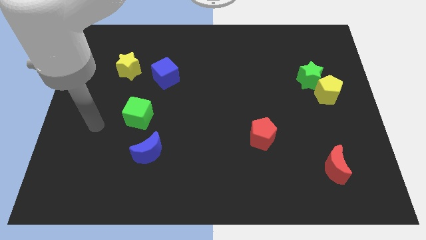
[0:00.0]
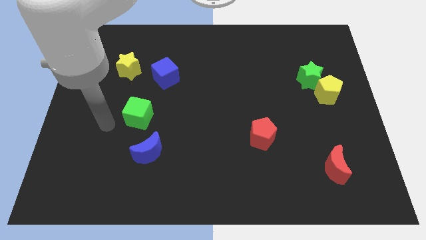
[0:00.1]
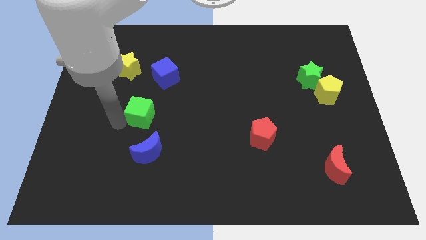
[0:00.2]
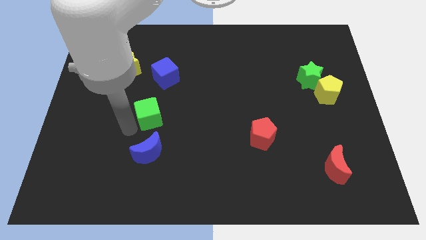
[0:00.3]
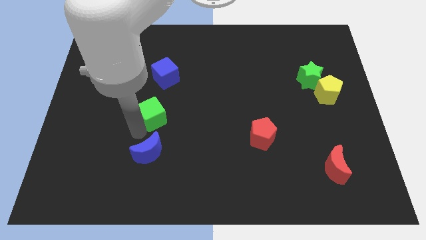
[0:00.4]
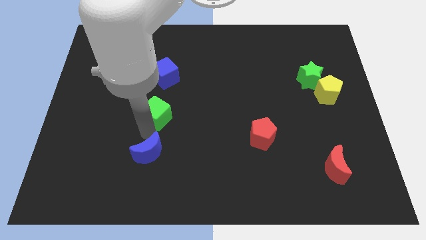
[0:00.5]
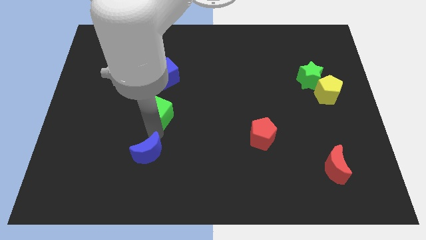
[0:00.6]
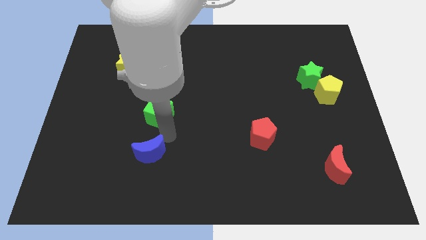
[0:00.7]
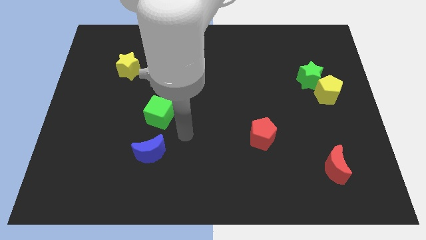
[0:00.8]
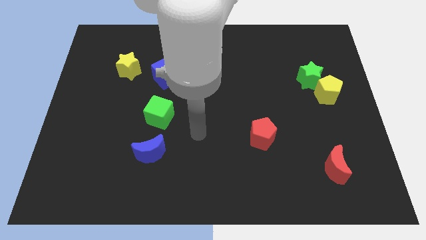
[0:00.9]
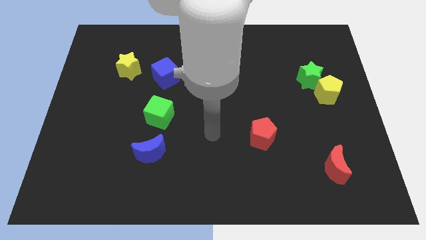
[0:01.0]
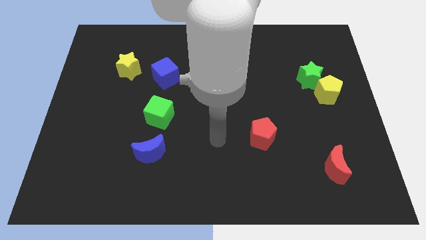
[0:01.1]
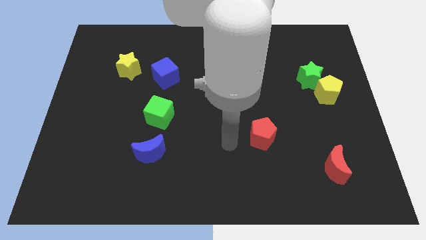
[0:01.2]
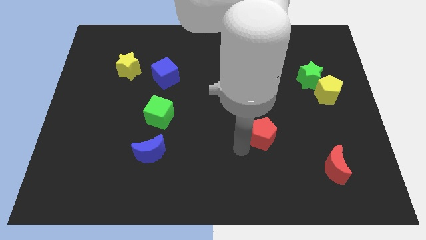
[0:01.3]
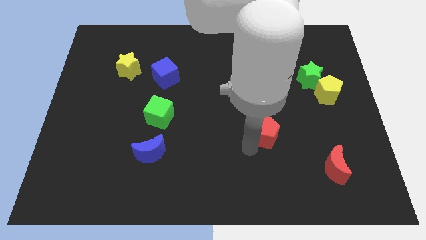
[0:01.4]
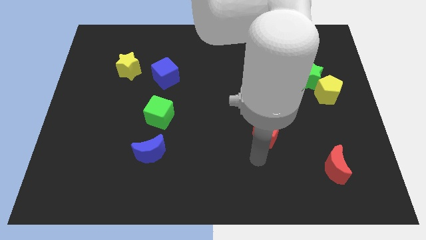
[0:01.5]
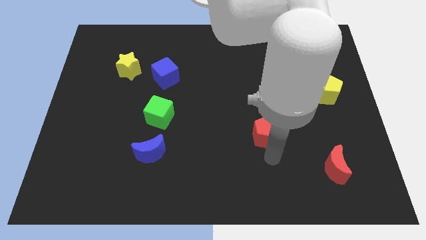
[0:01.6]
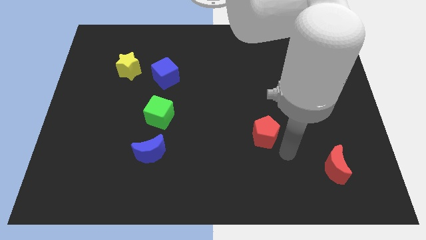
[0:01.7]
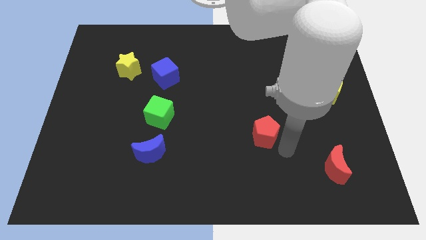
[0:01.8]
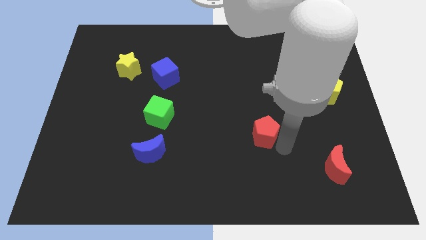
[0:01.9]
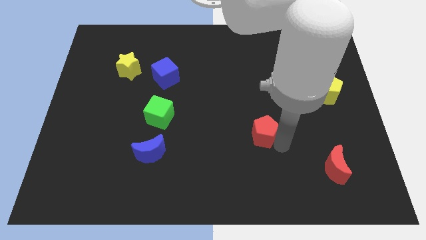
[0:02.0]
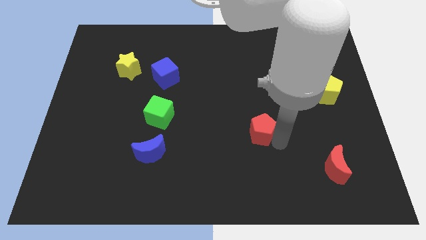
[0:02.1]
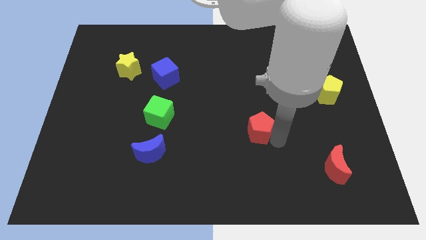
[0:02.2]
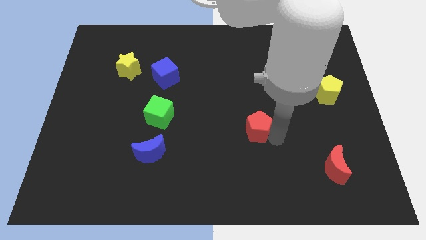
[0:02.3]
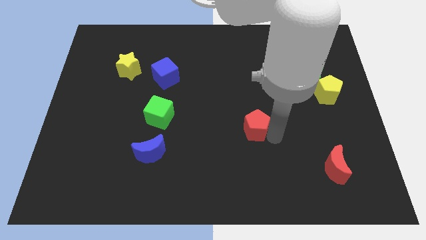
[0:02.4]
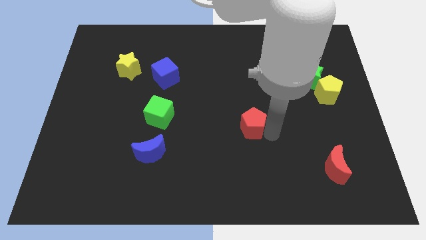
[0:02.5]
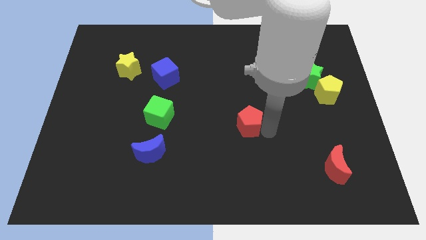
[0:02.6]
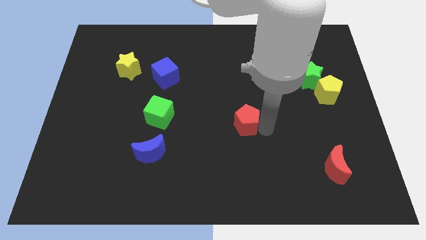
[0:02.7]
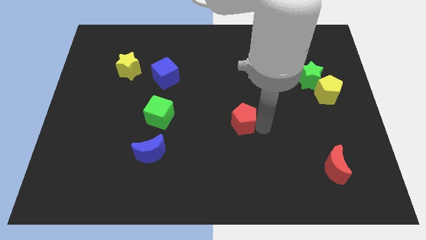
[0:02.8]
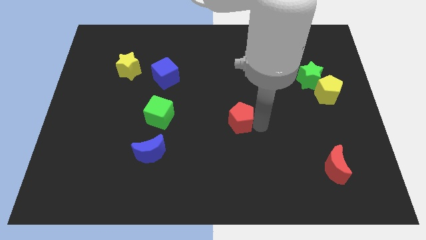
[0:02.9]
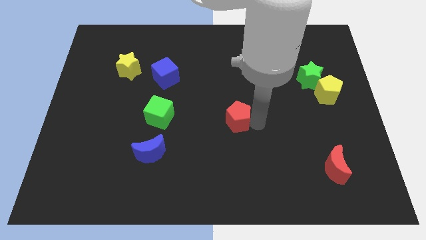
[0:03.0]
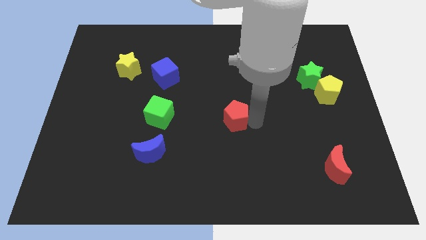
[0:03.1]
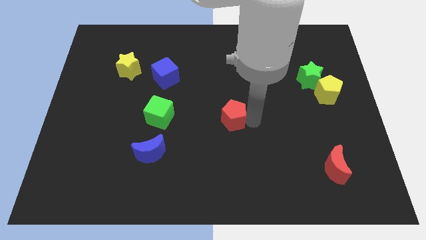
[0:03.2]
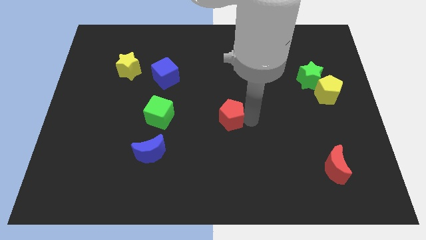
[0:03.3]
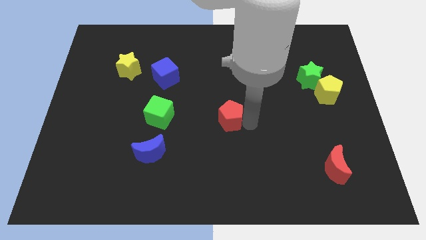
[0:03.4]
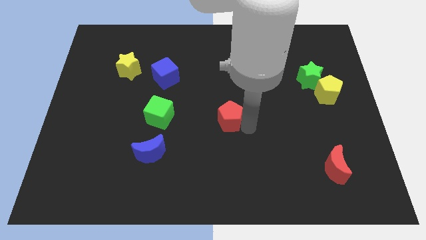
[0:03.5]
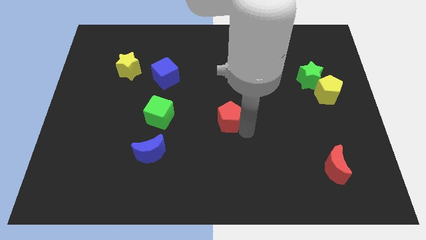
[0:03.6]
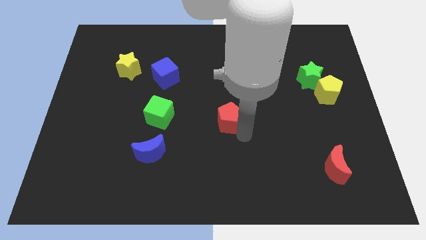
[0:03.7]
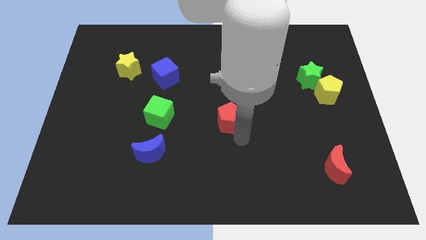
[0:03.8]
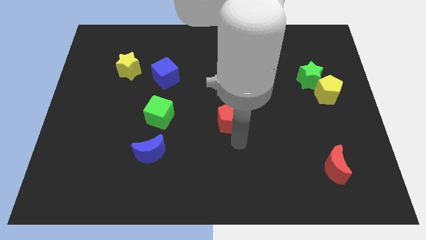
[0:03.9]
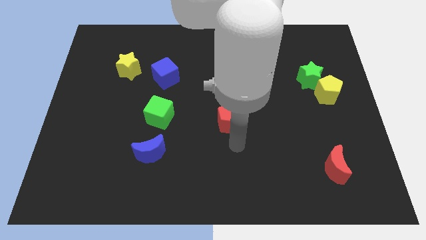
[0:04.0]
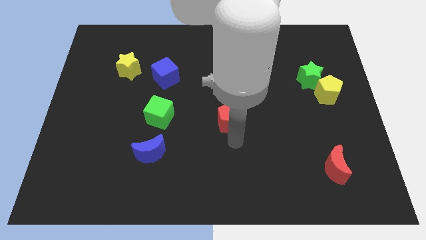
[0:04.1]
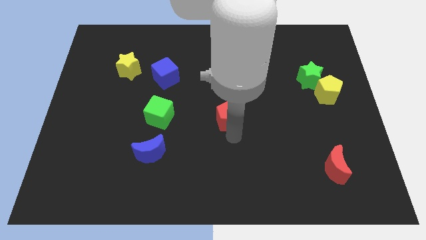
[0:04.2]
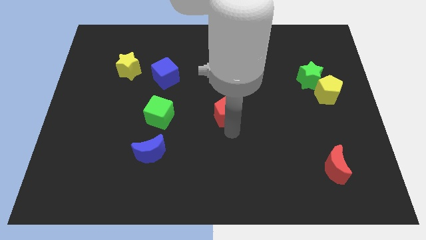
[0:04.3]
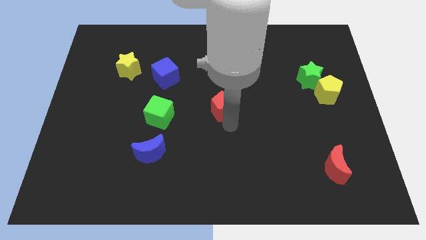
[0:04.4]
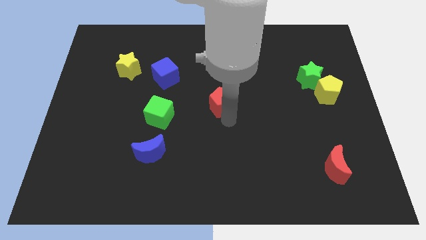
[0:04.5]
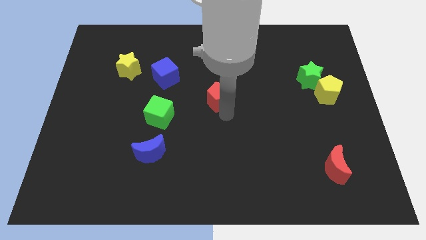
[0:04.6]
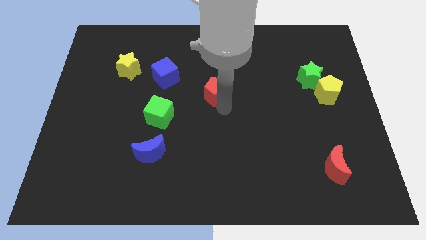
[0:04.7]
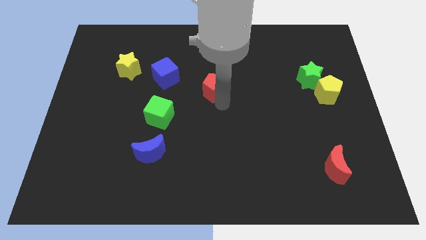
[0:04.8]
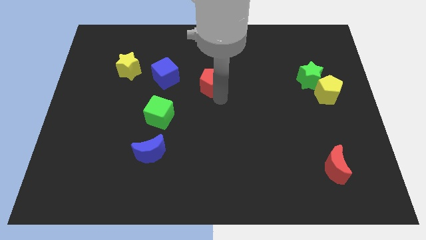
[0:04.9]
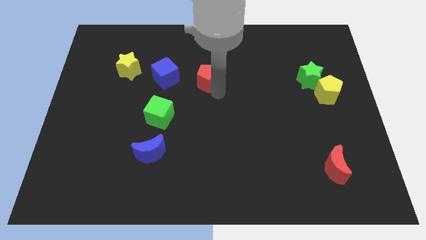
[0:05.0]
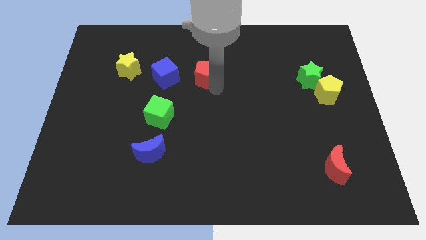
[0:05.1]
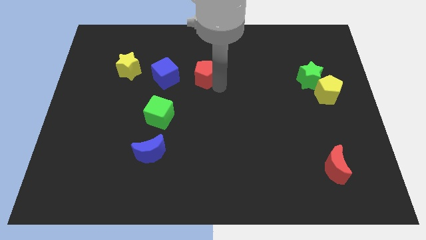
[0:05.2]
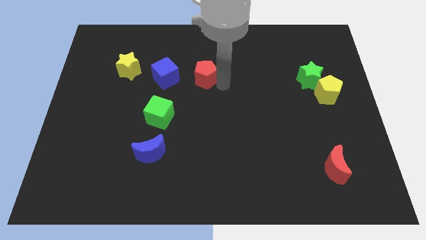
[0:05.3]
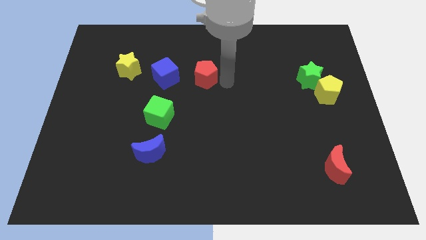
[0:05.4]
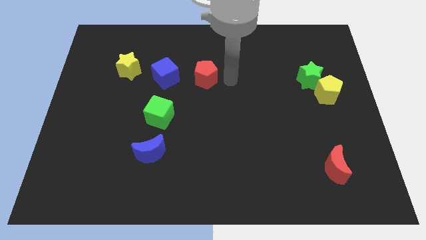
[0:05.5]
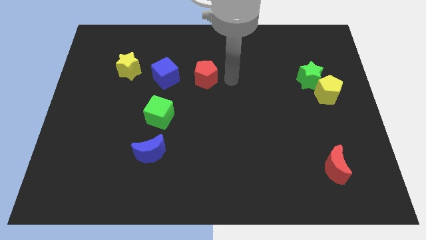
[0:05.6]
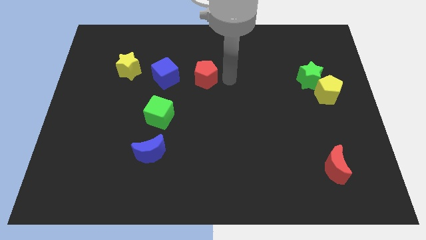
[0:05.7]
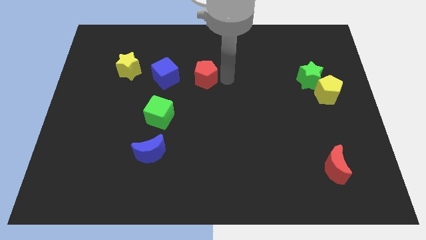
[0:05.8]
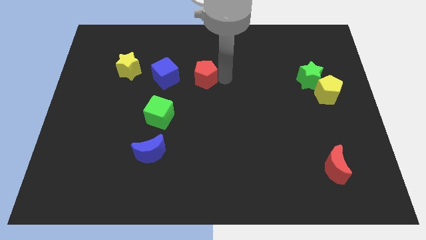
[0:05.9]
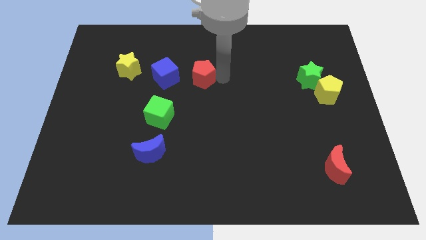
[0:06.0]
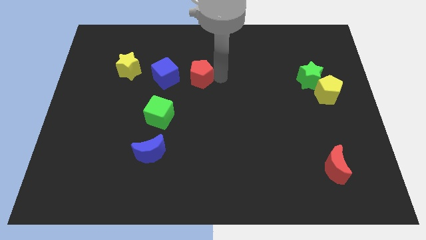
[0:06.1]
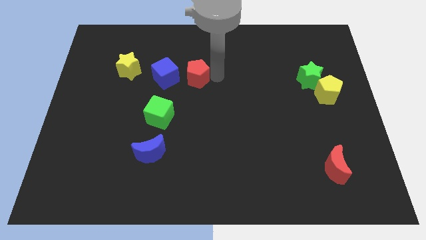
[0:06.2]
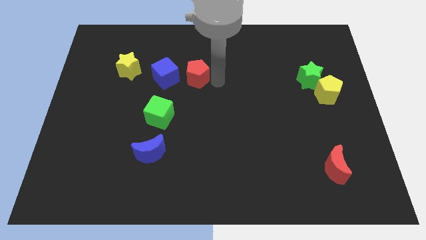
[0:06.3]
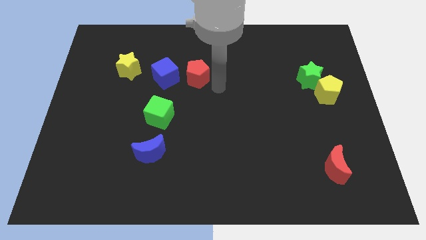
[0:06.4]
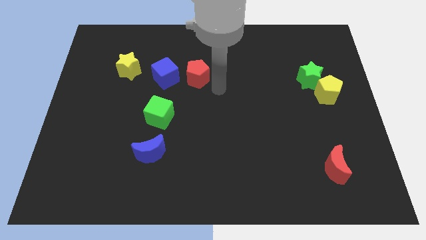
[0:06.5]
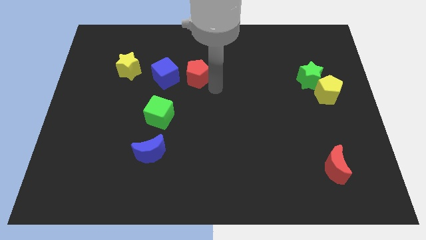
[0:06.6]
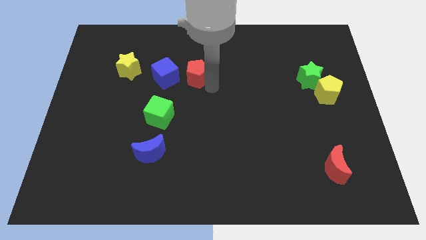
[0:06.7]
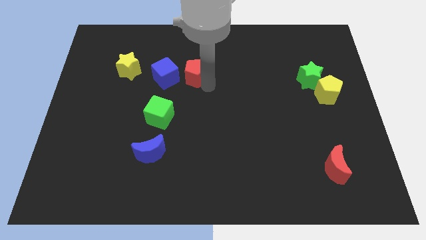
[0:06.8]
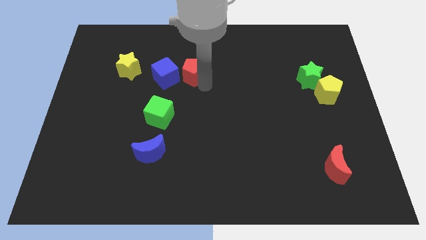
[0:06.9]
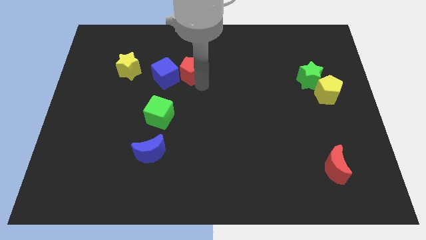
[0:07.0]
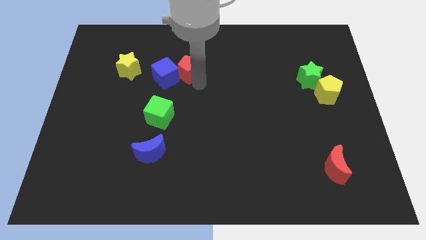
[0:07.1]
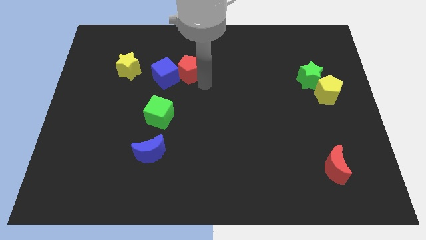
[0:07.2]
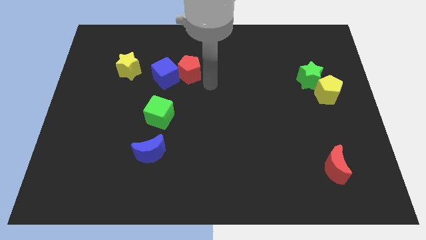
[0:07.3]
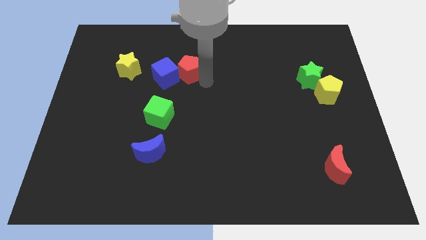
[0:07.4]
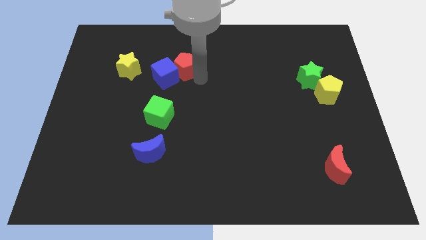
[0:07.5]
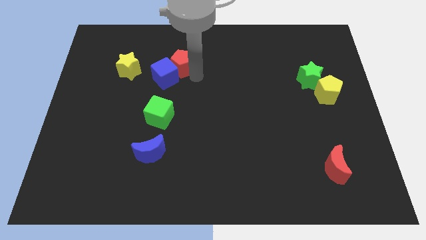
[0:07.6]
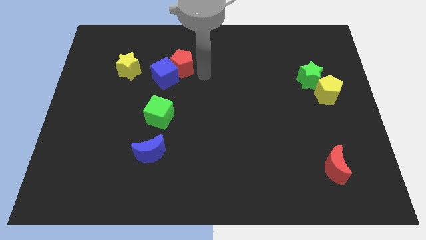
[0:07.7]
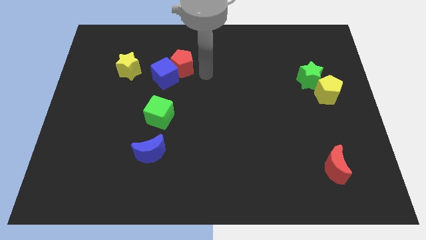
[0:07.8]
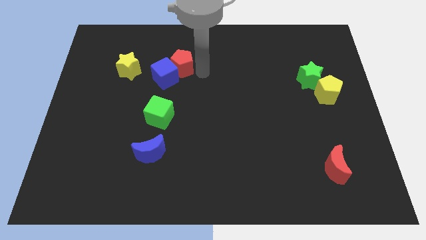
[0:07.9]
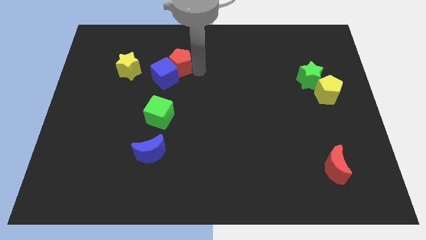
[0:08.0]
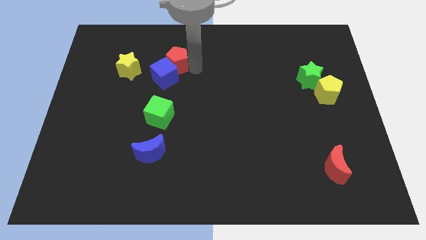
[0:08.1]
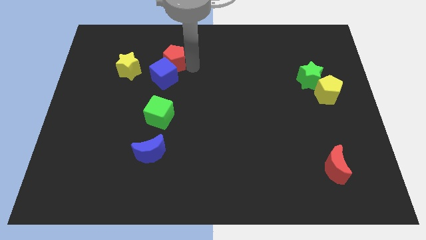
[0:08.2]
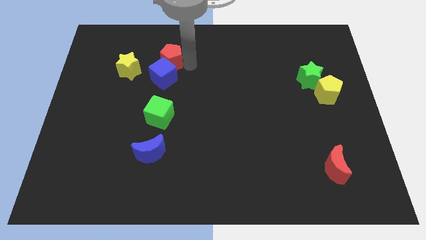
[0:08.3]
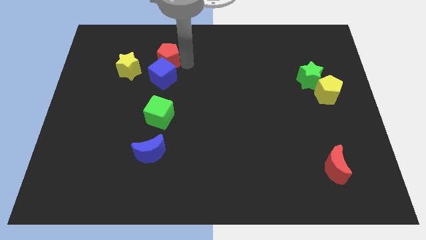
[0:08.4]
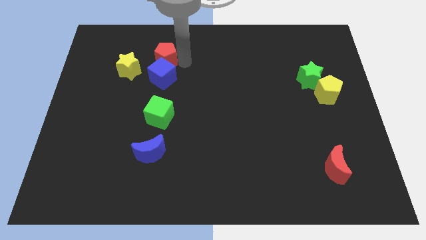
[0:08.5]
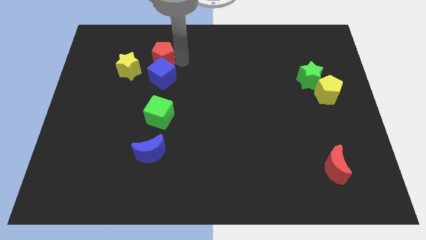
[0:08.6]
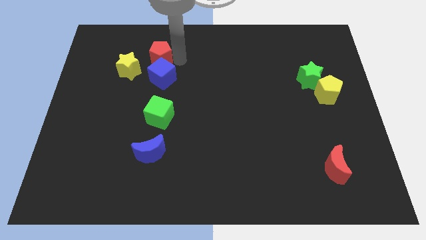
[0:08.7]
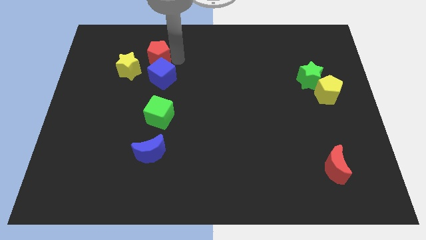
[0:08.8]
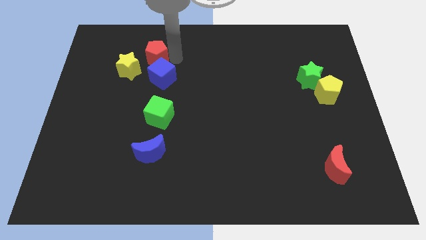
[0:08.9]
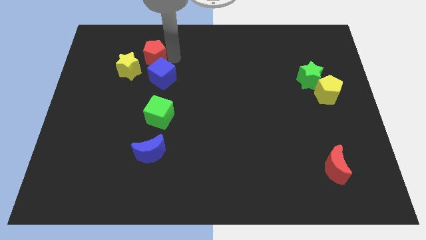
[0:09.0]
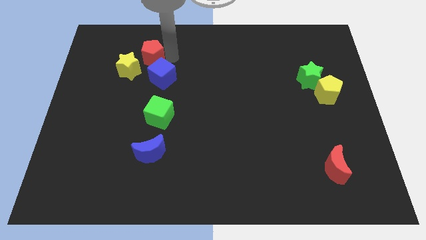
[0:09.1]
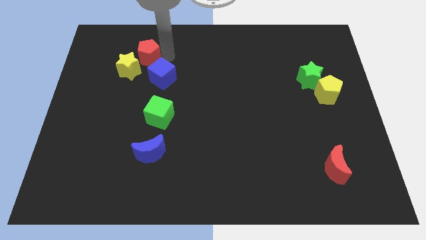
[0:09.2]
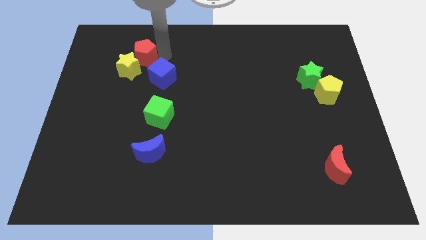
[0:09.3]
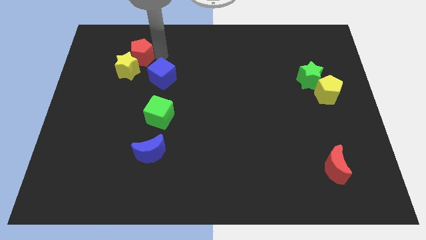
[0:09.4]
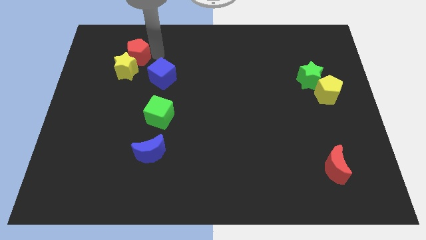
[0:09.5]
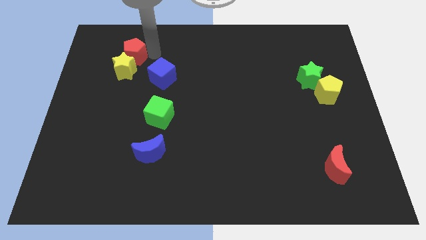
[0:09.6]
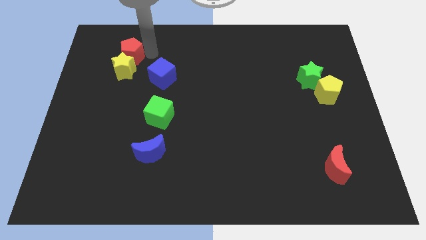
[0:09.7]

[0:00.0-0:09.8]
move the red pentagon to the top left side of the yellow star
